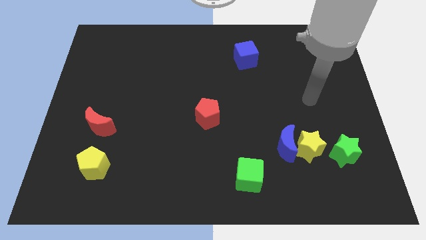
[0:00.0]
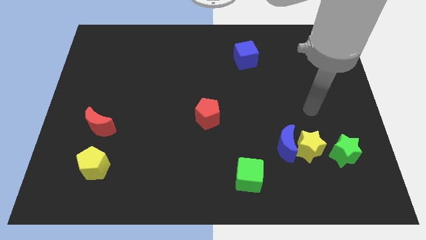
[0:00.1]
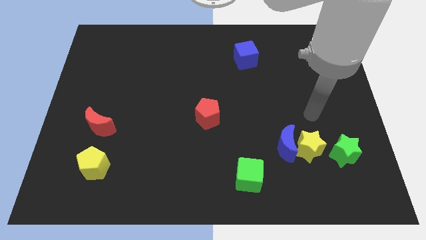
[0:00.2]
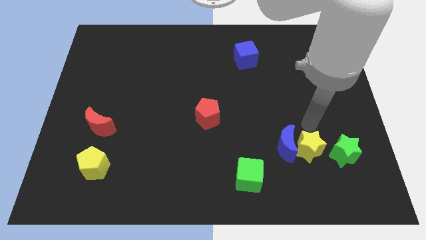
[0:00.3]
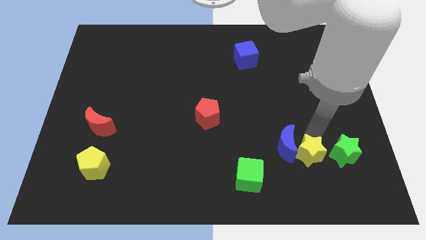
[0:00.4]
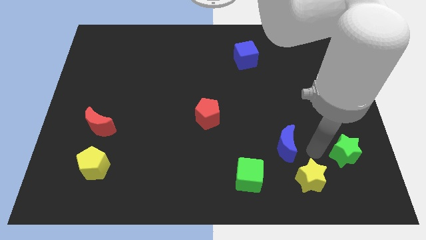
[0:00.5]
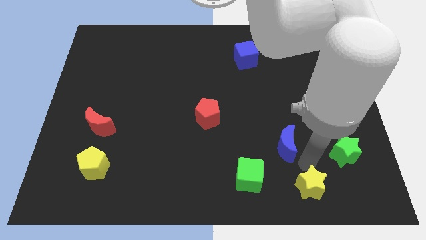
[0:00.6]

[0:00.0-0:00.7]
move the blue moon away from the yellow star

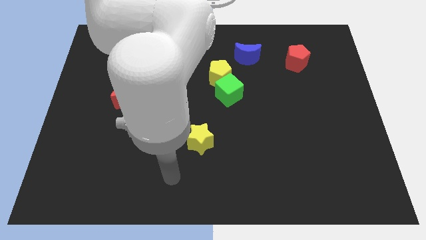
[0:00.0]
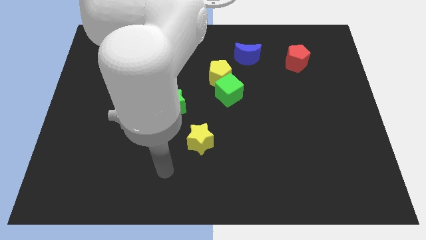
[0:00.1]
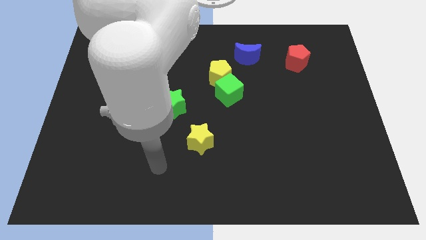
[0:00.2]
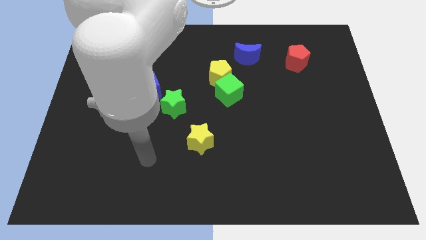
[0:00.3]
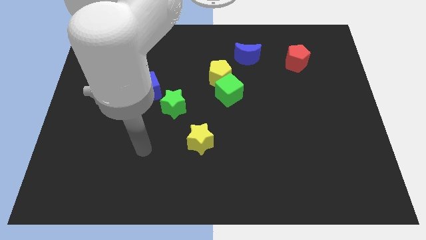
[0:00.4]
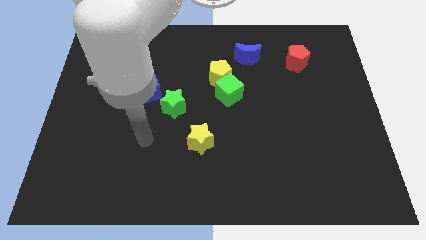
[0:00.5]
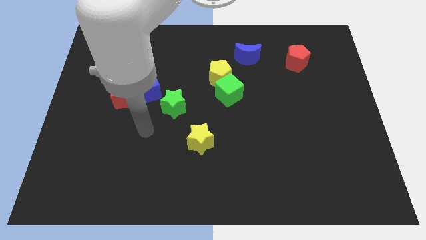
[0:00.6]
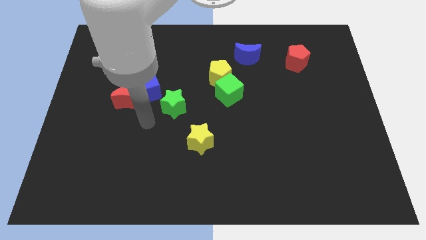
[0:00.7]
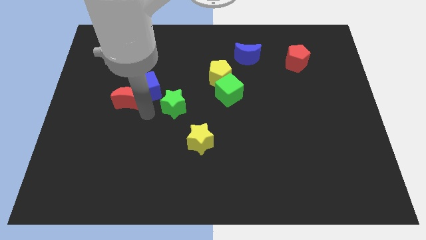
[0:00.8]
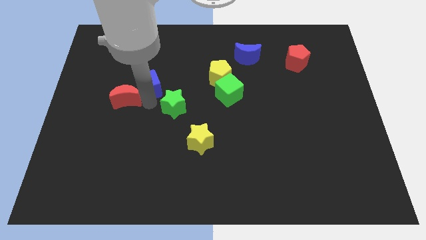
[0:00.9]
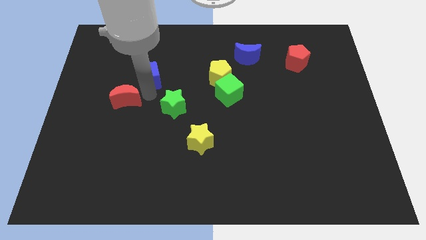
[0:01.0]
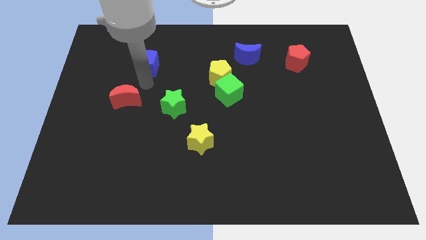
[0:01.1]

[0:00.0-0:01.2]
separate the red moon from the blue cube

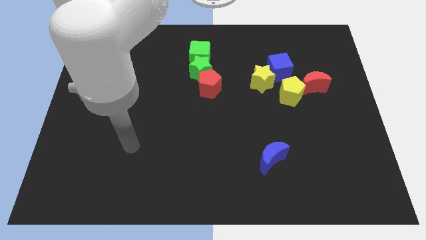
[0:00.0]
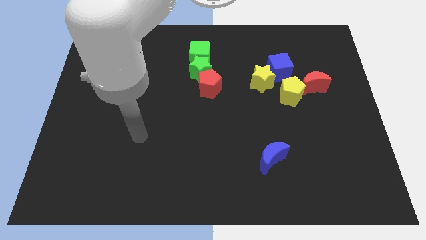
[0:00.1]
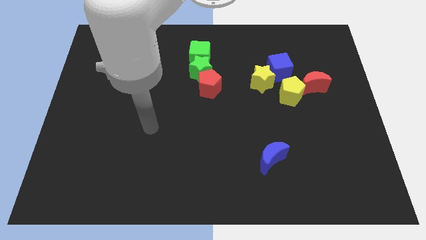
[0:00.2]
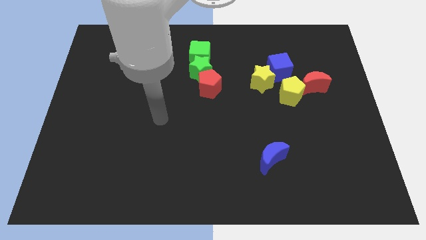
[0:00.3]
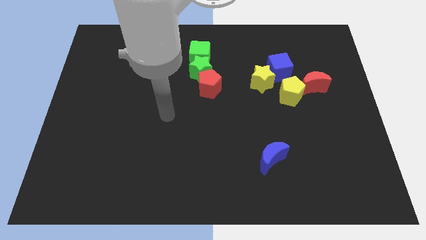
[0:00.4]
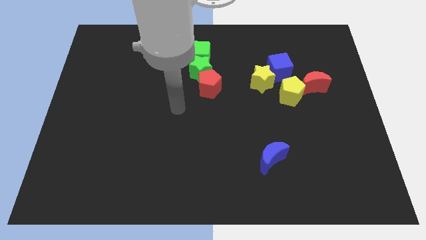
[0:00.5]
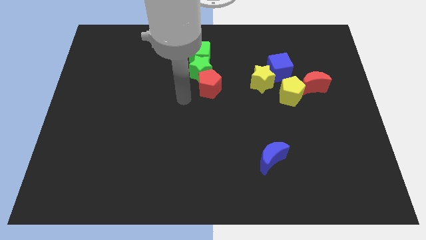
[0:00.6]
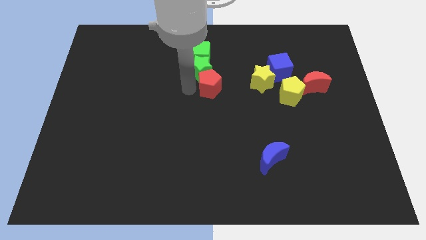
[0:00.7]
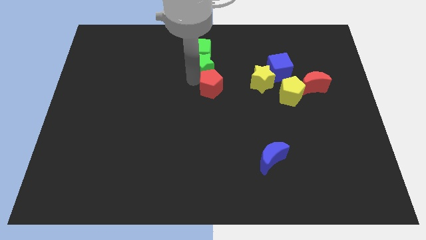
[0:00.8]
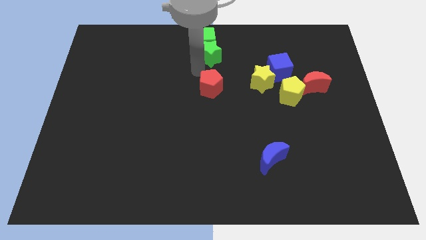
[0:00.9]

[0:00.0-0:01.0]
separate the red pentagon from the green star

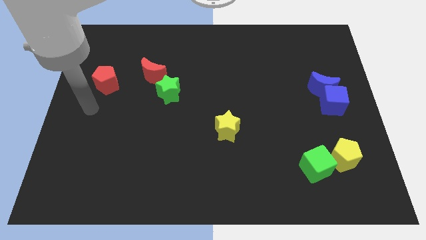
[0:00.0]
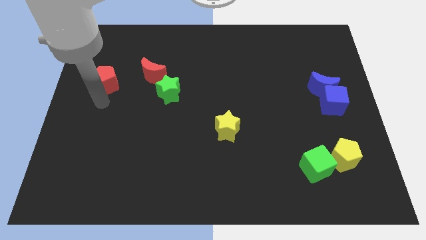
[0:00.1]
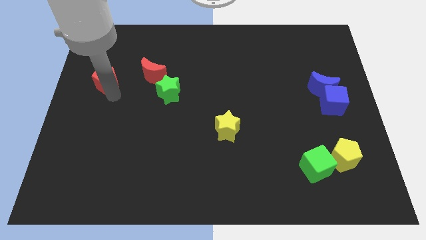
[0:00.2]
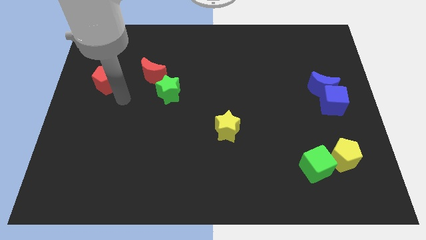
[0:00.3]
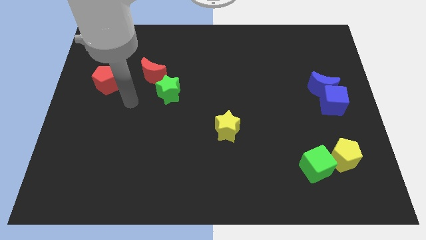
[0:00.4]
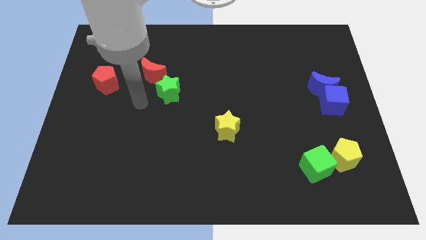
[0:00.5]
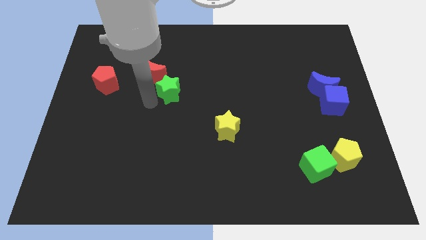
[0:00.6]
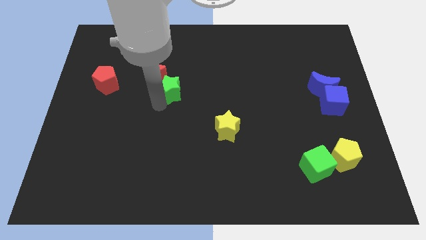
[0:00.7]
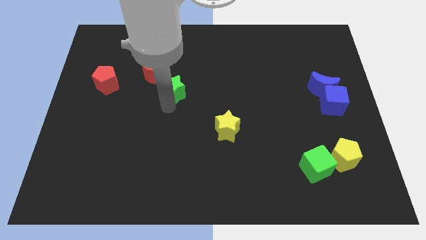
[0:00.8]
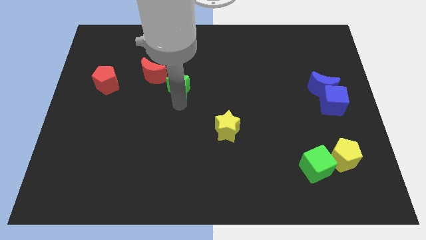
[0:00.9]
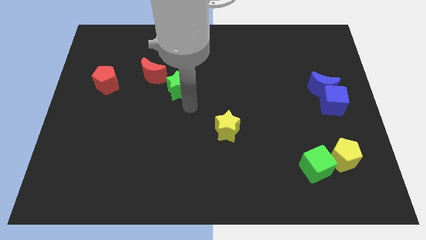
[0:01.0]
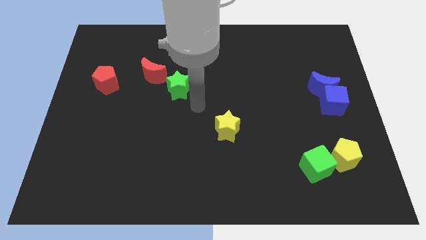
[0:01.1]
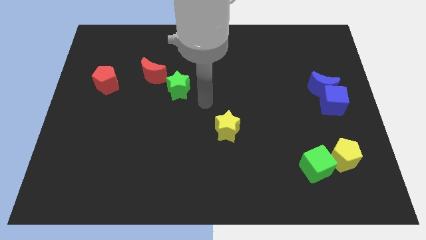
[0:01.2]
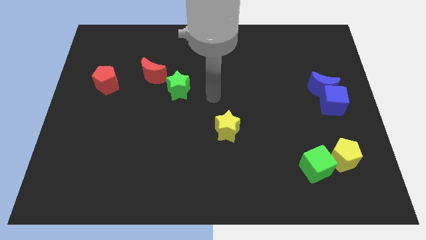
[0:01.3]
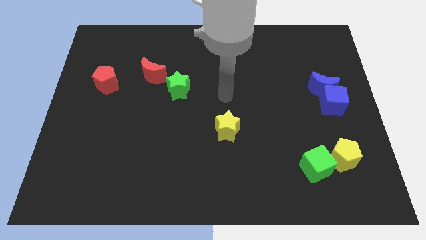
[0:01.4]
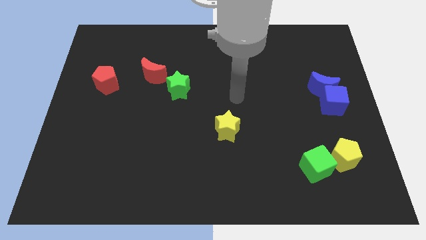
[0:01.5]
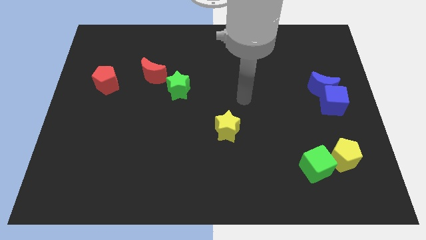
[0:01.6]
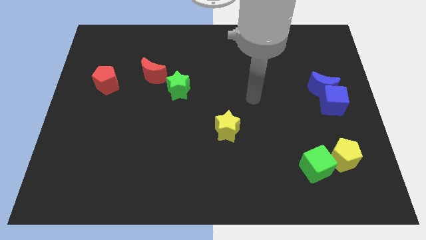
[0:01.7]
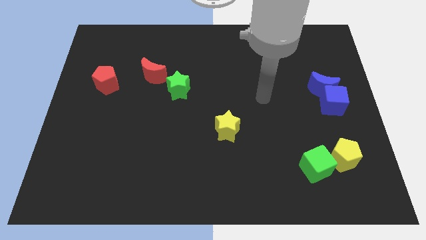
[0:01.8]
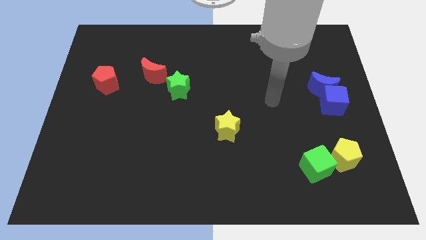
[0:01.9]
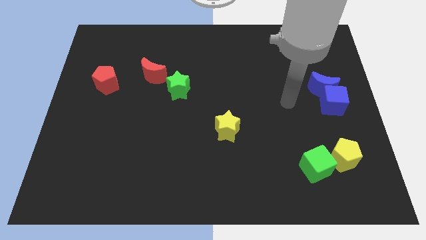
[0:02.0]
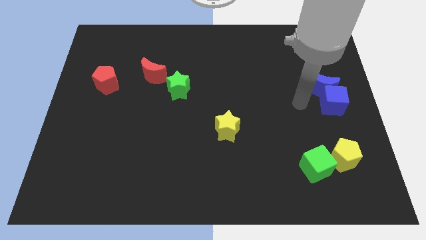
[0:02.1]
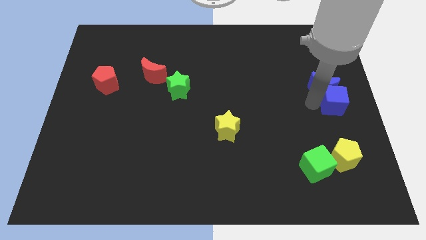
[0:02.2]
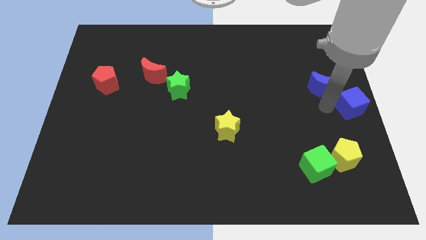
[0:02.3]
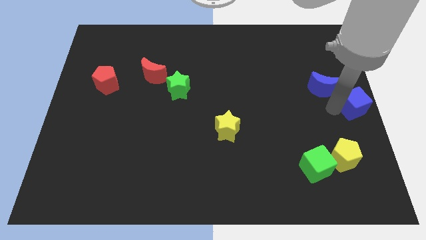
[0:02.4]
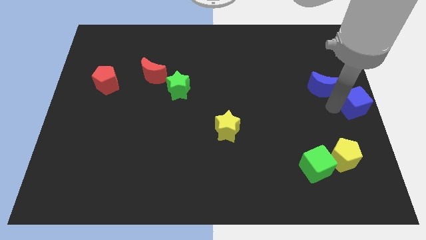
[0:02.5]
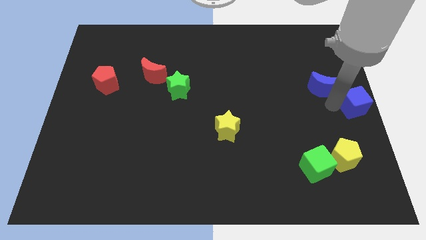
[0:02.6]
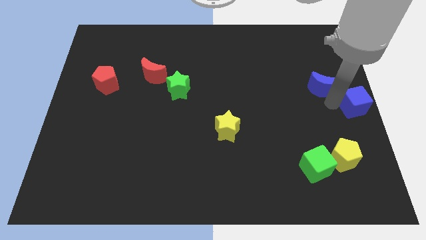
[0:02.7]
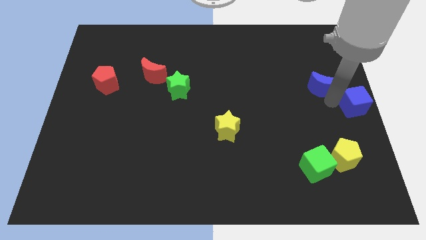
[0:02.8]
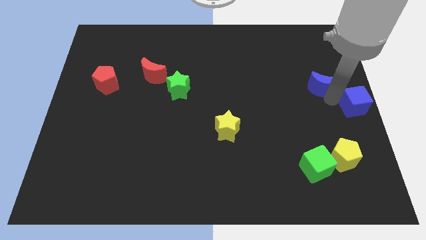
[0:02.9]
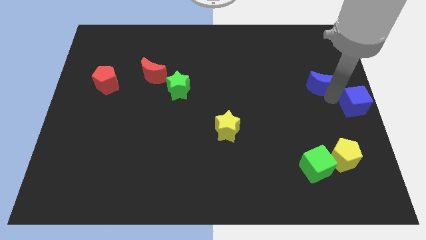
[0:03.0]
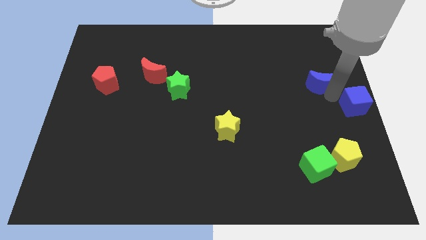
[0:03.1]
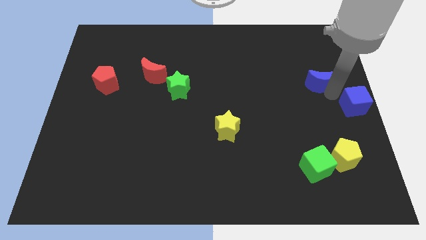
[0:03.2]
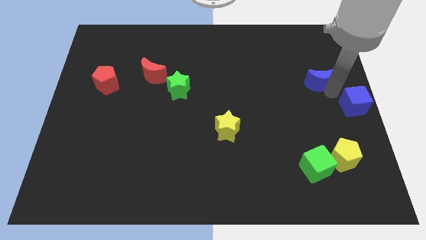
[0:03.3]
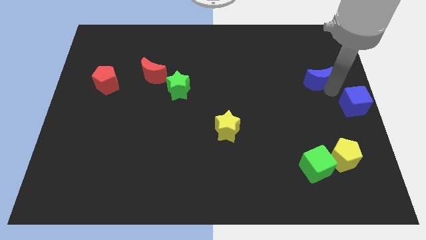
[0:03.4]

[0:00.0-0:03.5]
move the blue moon away from the blue cube

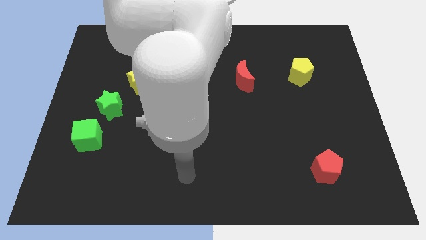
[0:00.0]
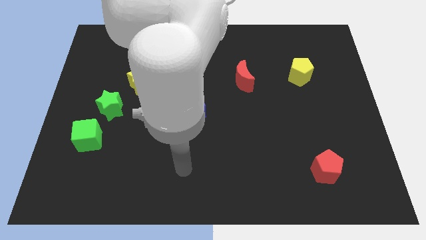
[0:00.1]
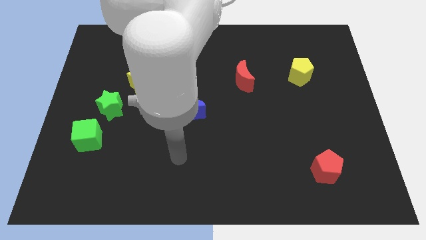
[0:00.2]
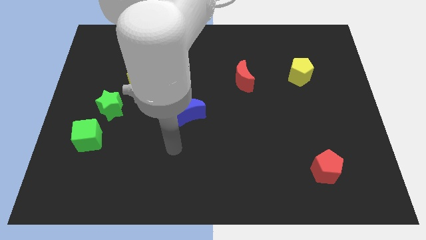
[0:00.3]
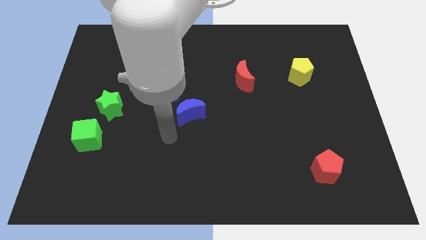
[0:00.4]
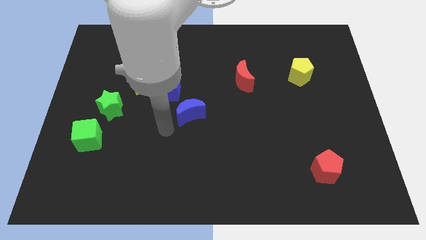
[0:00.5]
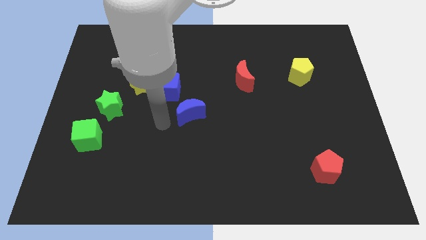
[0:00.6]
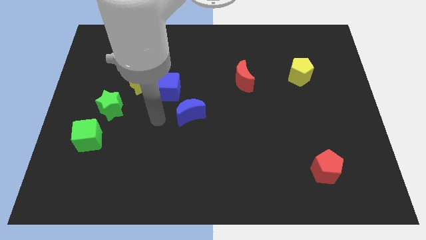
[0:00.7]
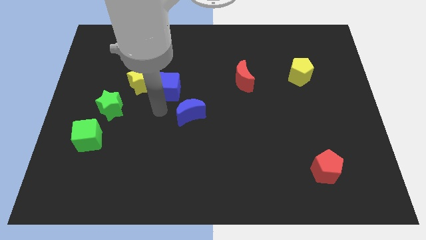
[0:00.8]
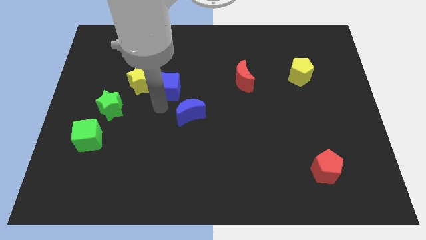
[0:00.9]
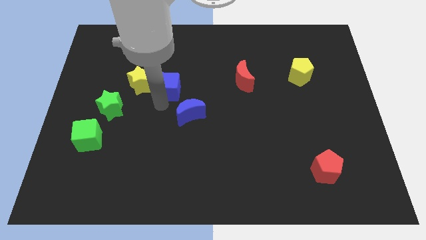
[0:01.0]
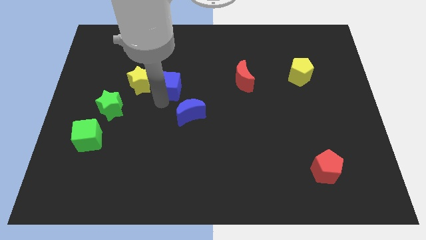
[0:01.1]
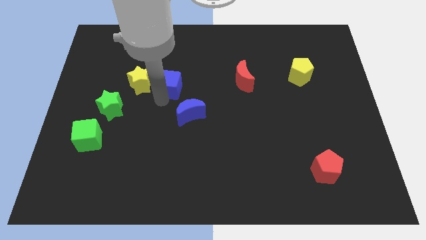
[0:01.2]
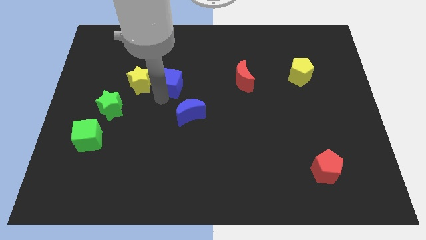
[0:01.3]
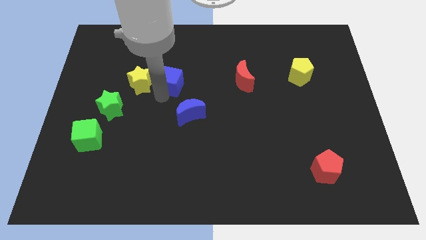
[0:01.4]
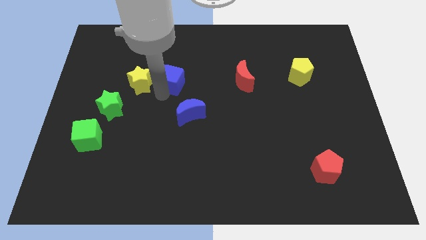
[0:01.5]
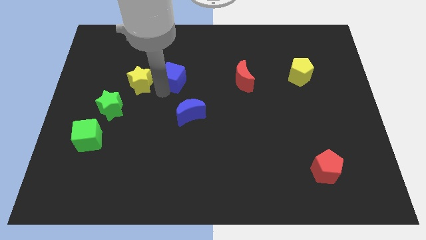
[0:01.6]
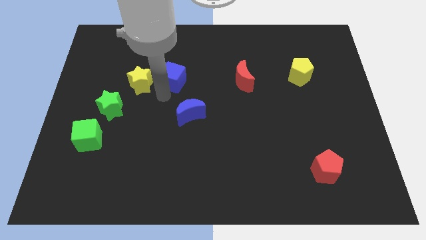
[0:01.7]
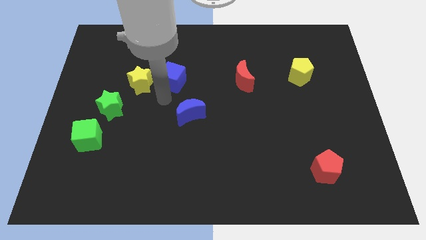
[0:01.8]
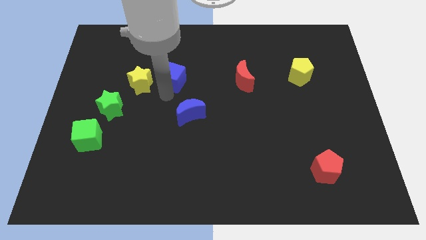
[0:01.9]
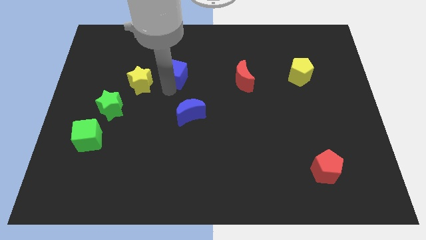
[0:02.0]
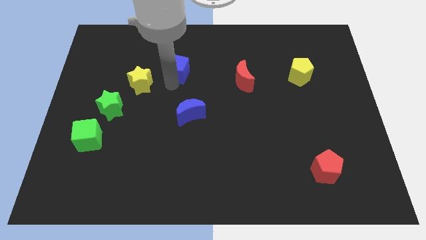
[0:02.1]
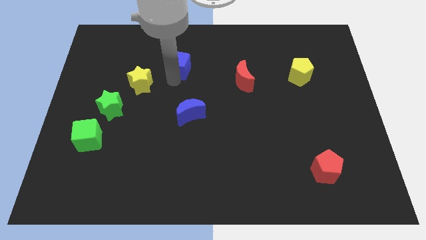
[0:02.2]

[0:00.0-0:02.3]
move the blue cube away from the yellow star and blue moon

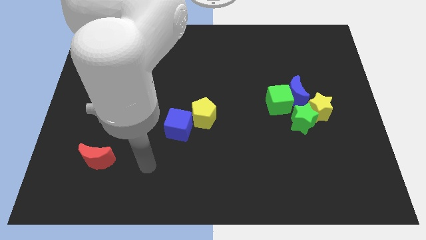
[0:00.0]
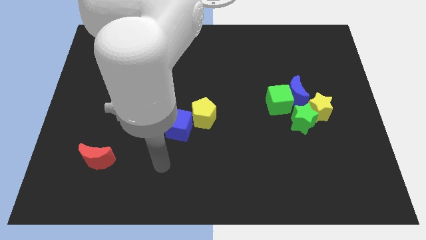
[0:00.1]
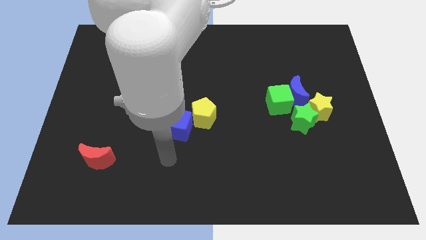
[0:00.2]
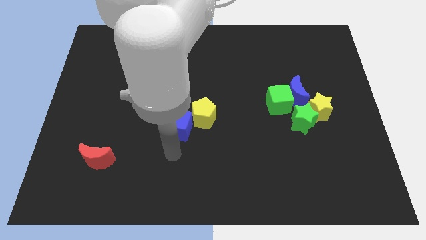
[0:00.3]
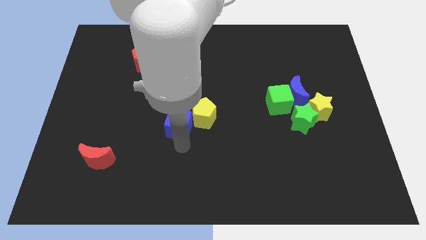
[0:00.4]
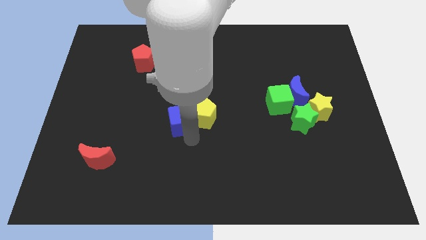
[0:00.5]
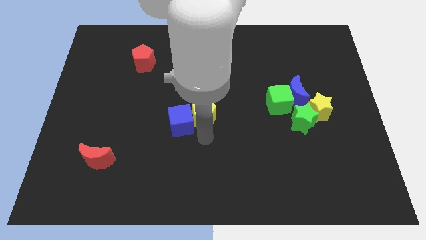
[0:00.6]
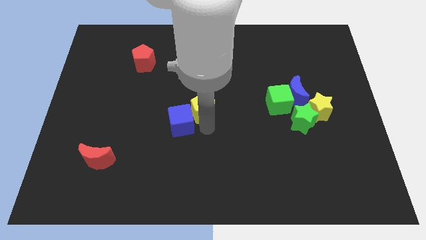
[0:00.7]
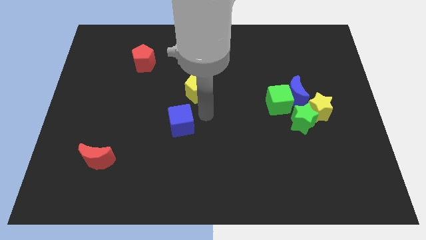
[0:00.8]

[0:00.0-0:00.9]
move the blue cube away from the yellow pentagon
